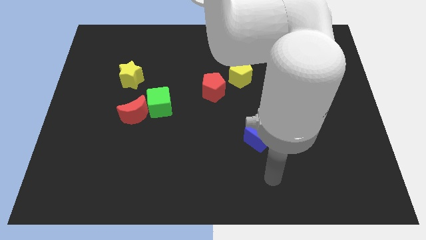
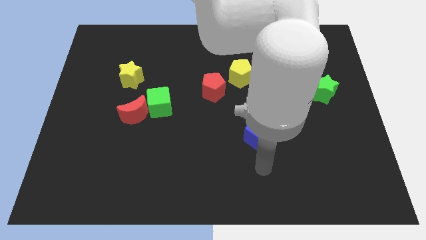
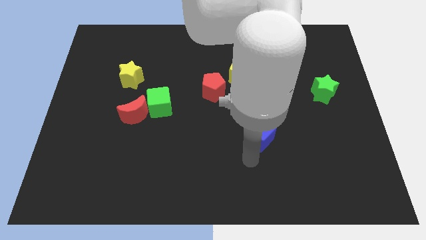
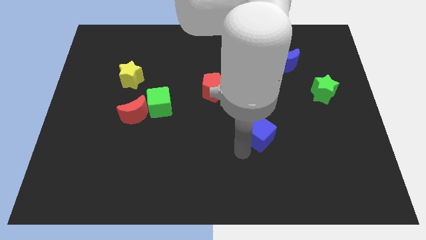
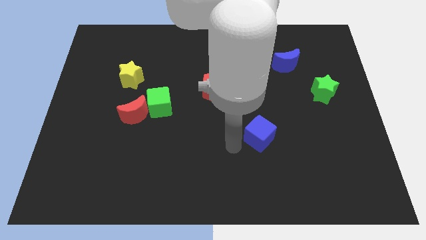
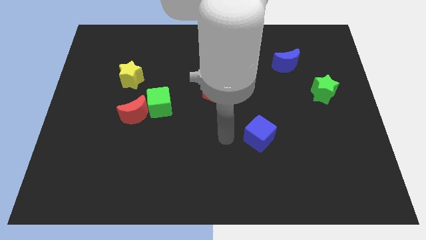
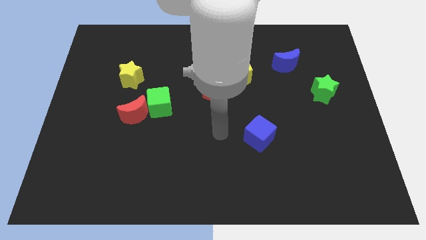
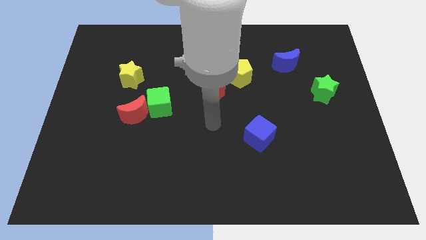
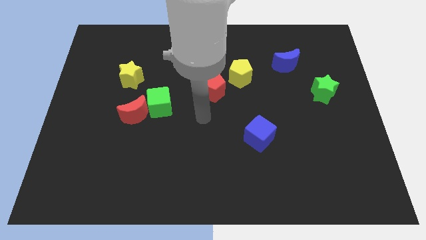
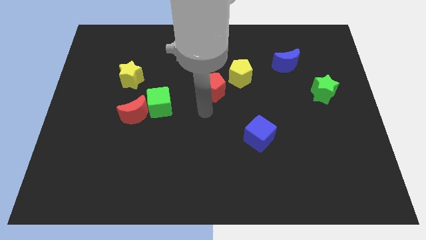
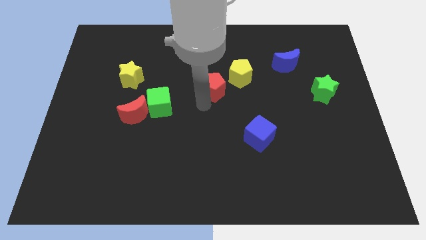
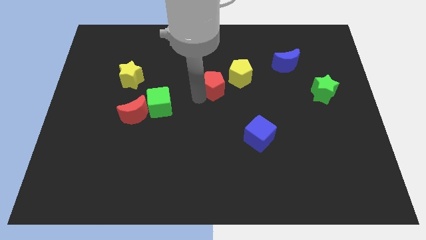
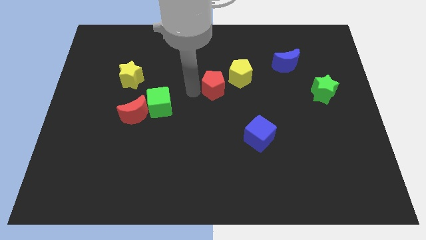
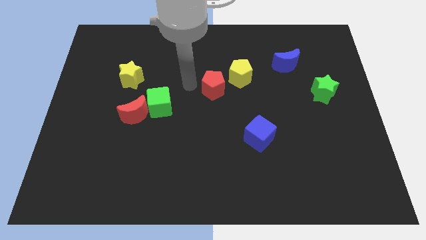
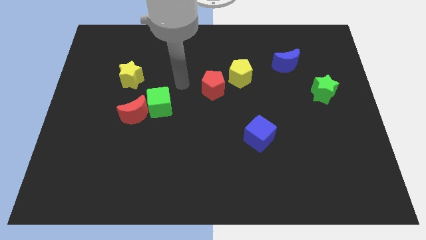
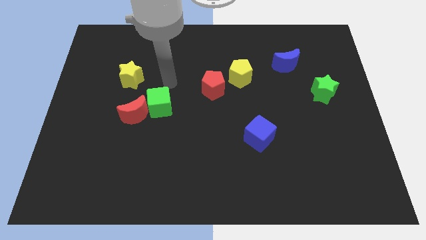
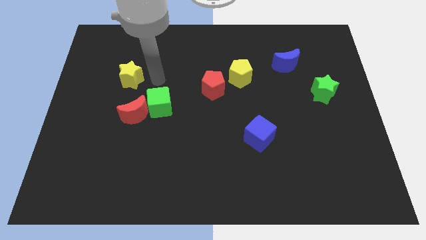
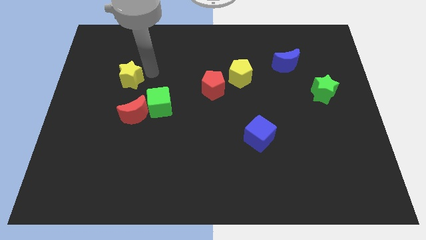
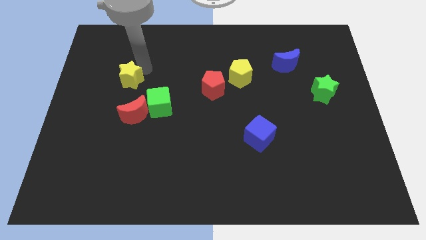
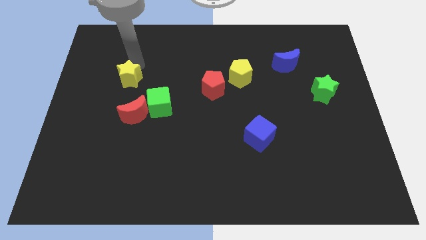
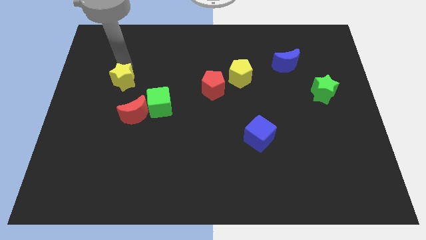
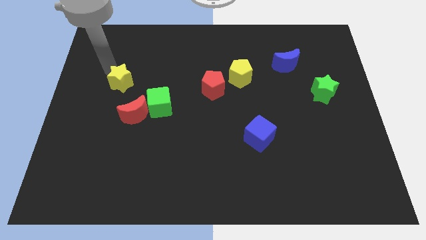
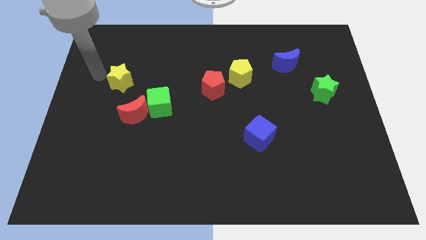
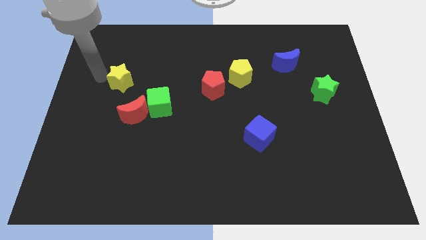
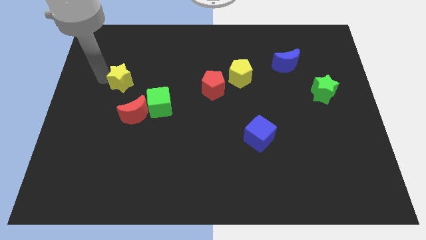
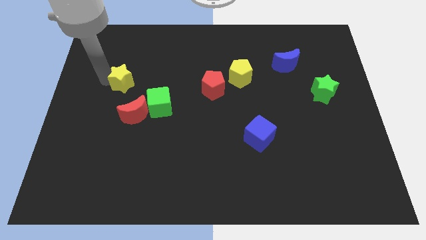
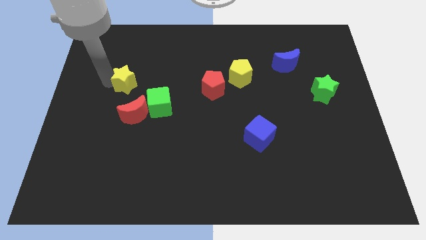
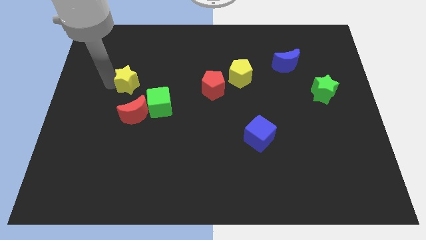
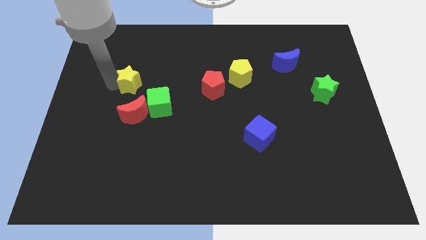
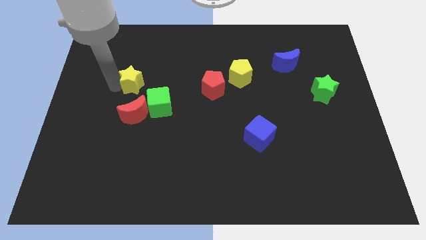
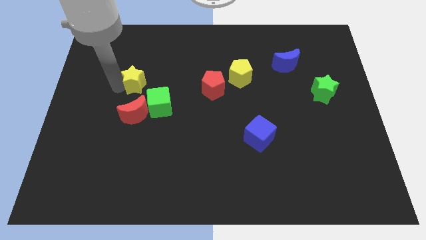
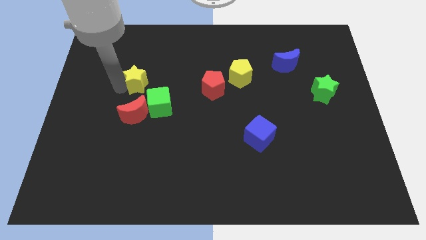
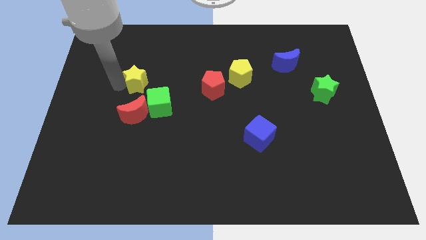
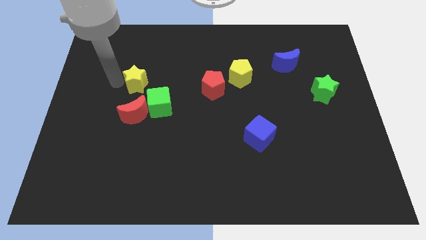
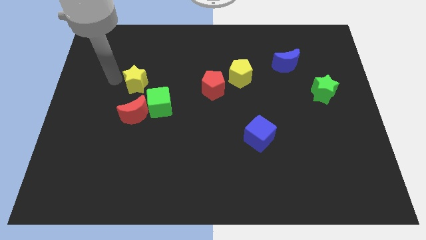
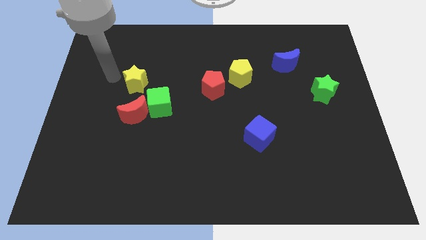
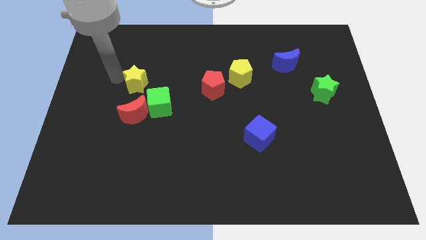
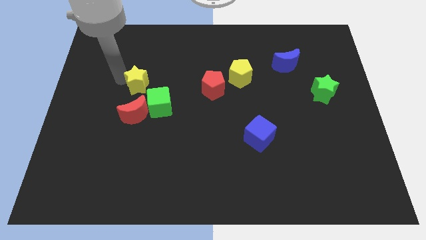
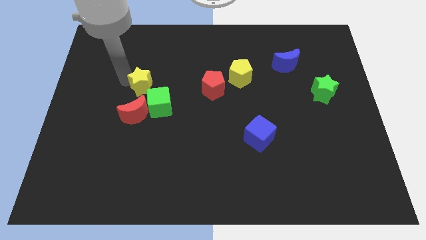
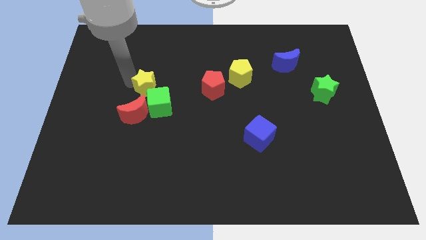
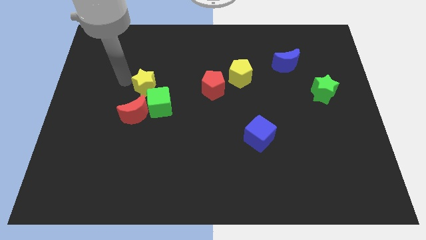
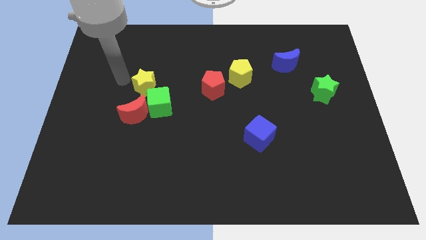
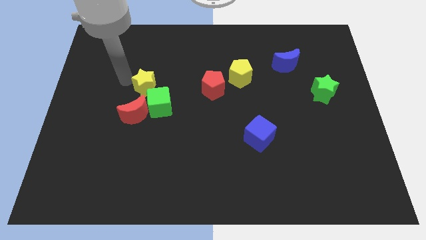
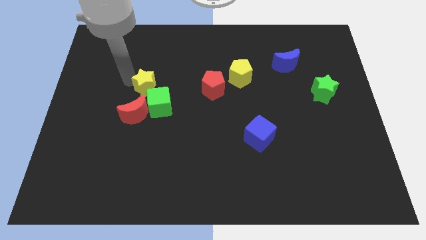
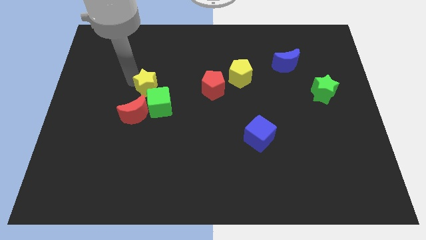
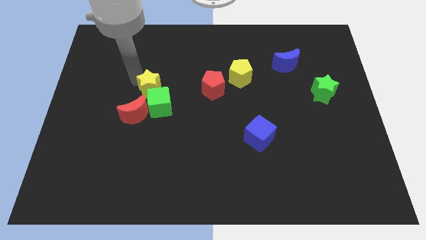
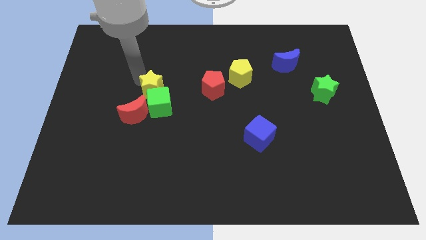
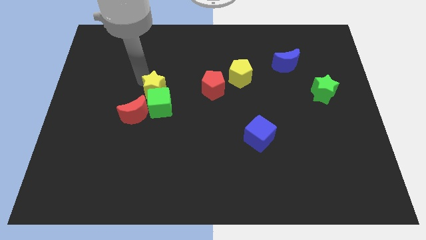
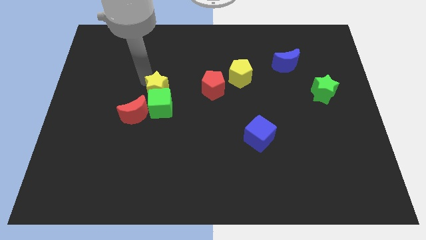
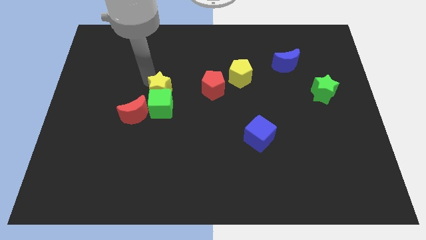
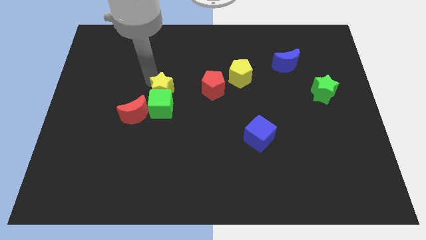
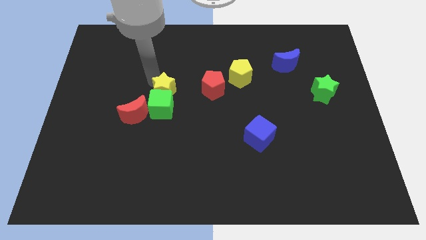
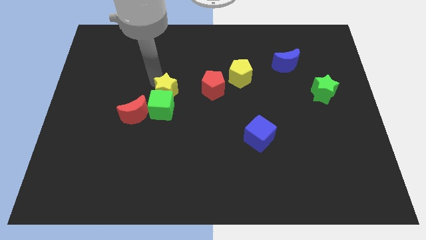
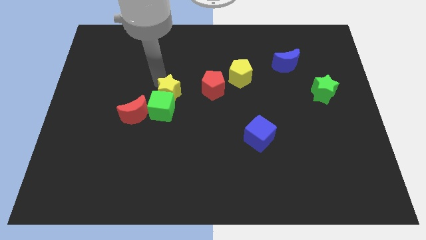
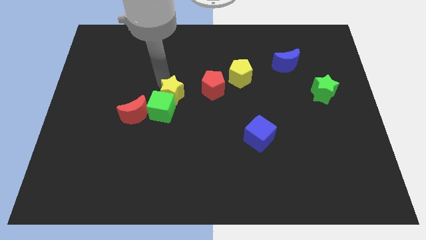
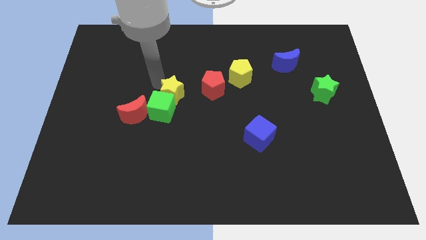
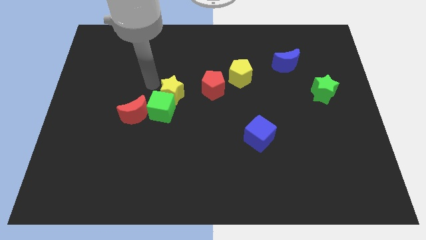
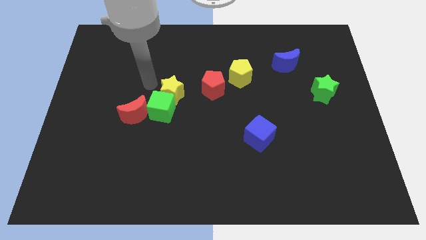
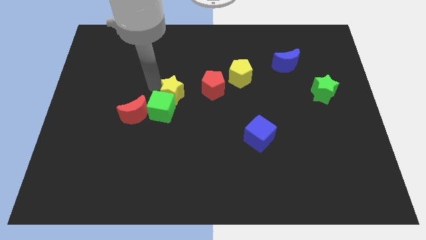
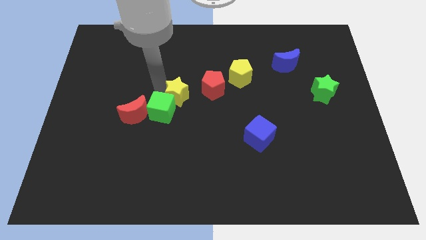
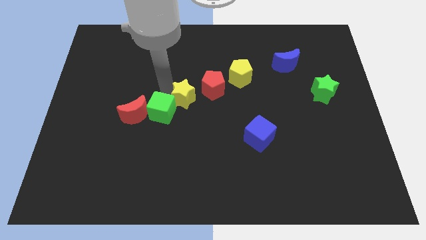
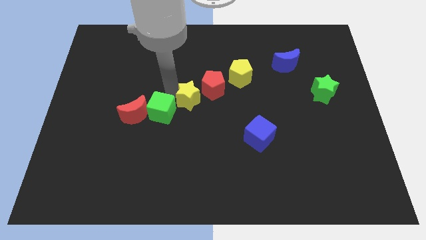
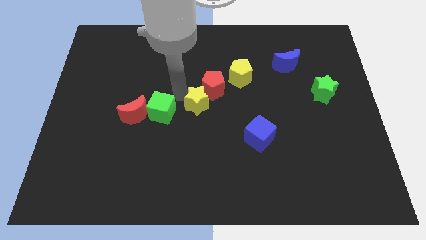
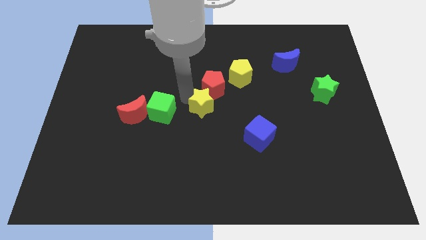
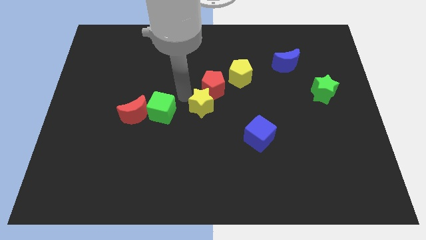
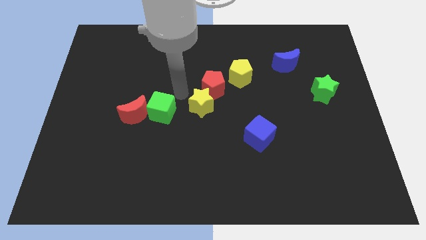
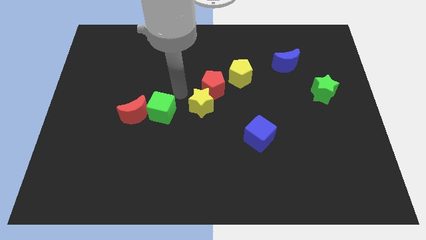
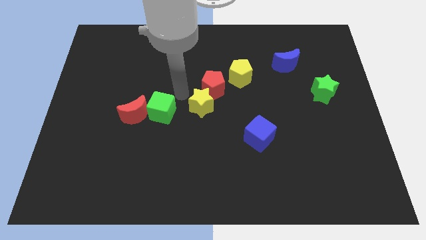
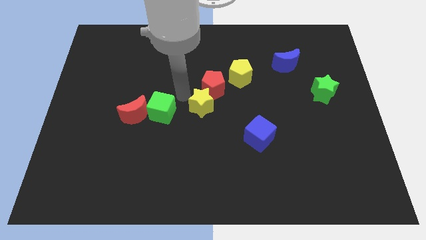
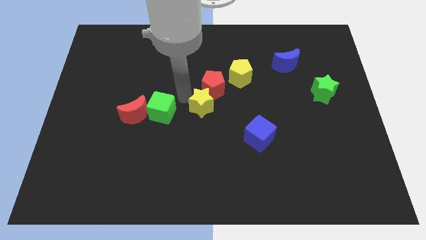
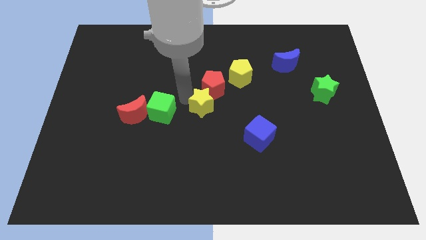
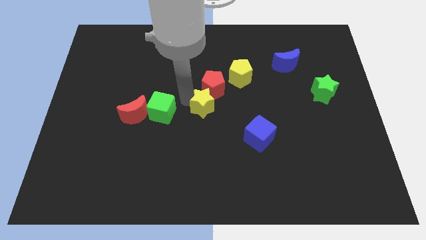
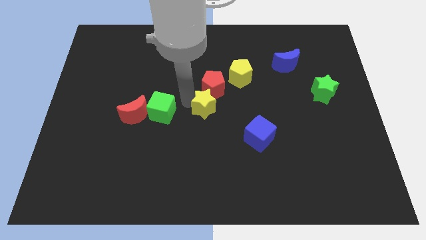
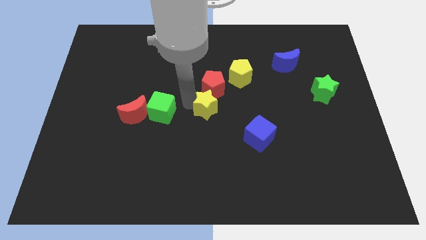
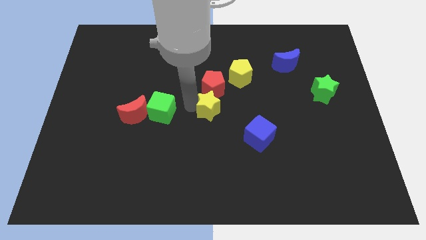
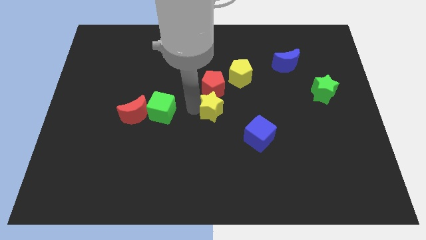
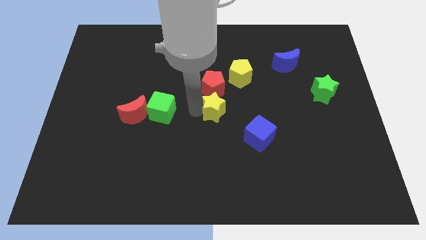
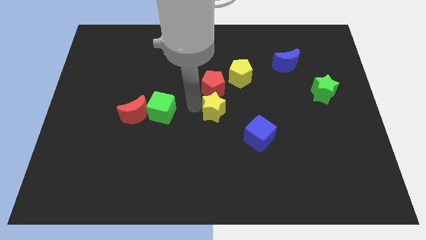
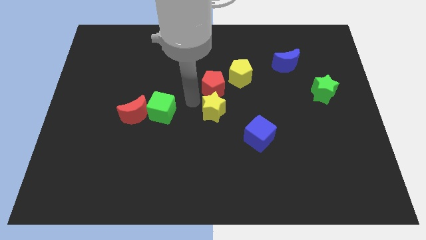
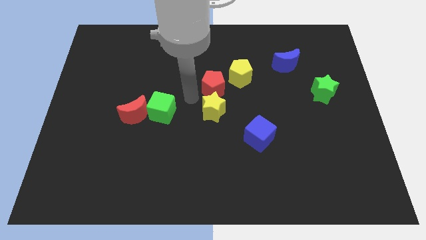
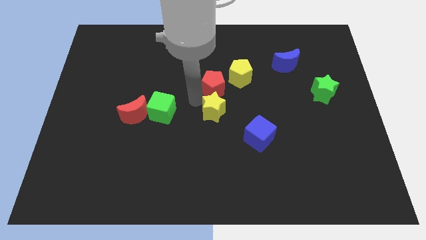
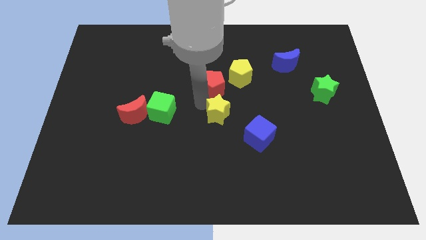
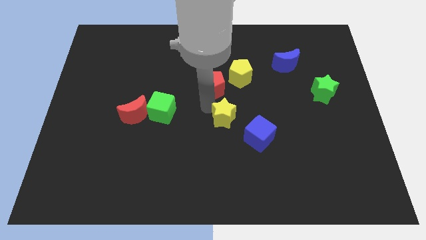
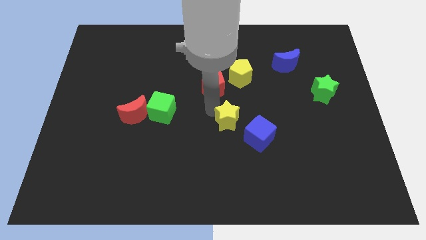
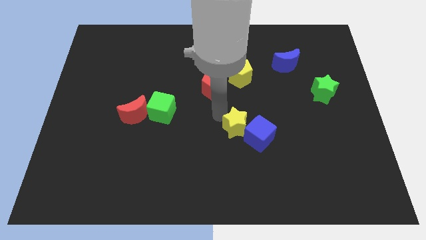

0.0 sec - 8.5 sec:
put the yellow star towards the blue cube
